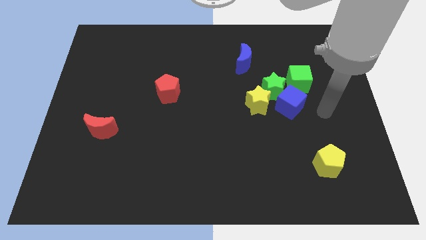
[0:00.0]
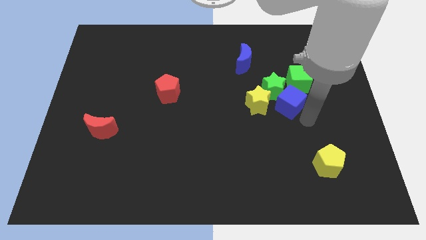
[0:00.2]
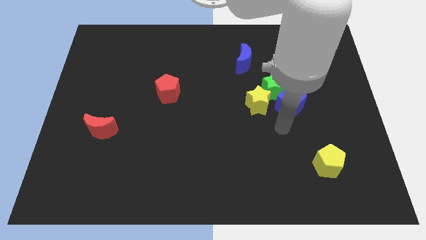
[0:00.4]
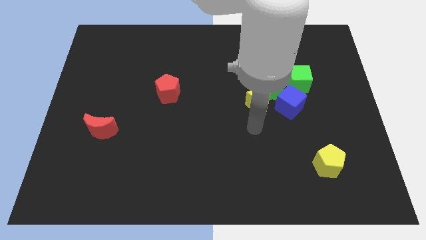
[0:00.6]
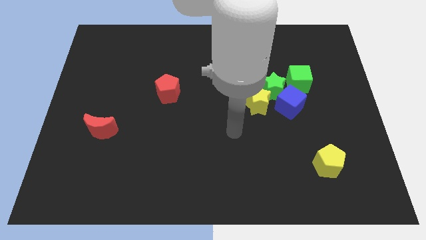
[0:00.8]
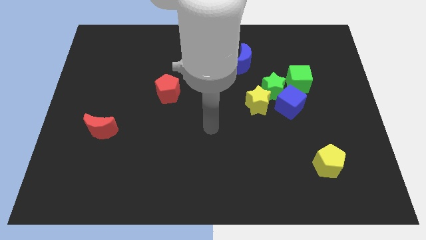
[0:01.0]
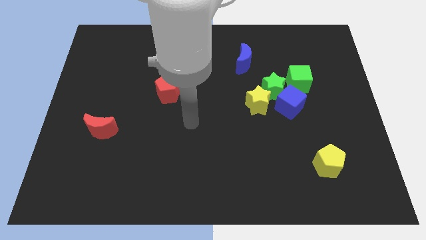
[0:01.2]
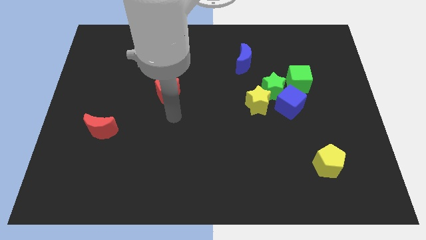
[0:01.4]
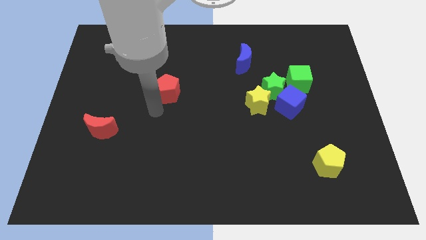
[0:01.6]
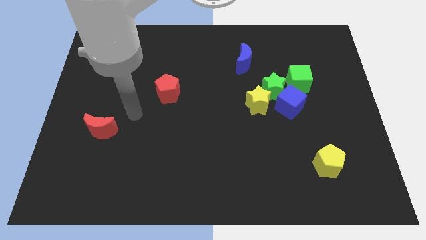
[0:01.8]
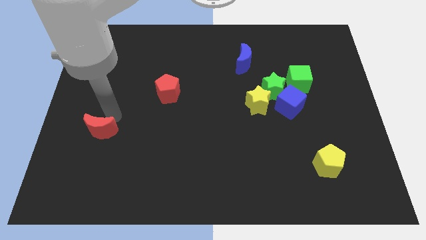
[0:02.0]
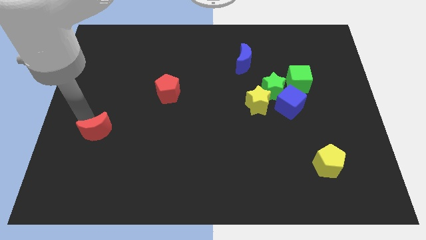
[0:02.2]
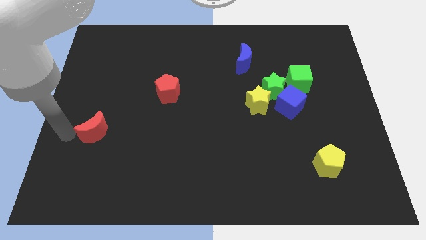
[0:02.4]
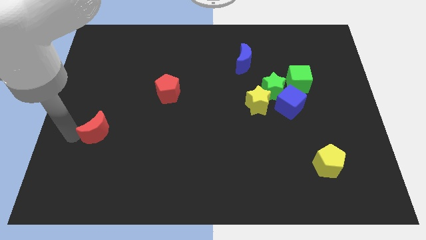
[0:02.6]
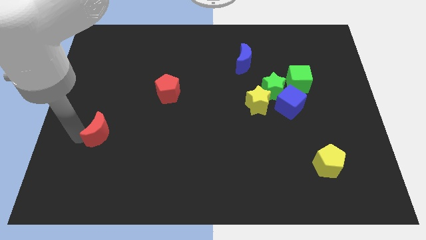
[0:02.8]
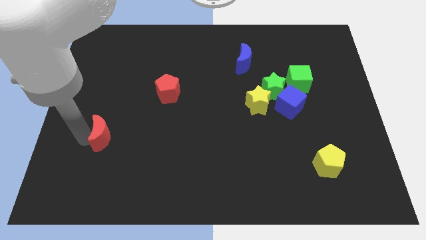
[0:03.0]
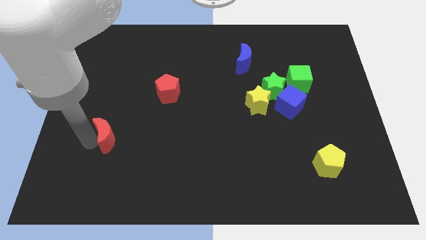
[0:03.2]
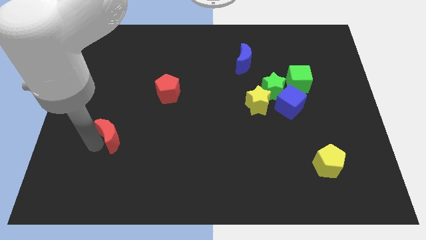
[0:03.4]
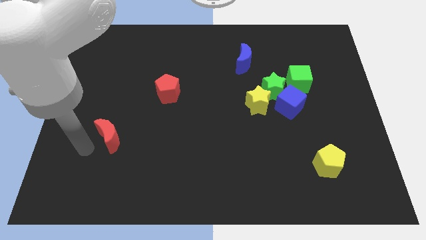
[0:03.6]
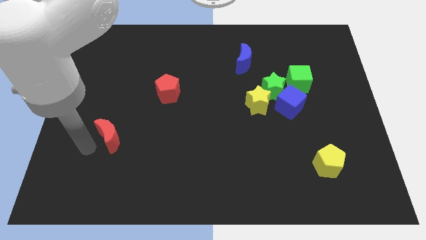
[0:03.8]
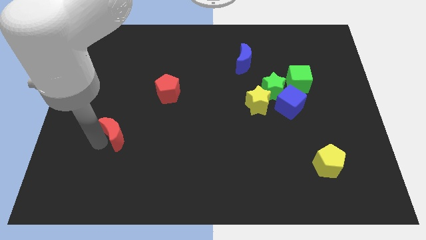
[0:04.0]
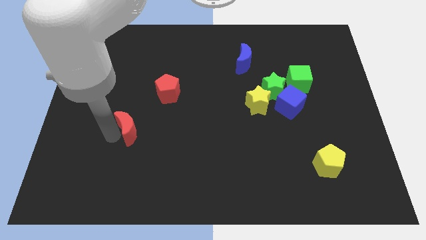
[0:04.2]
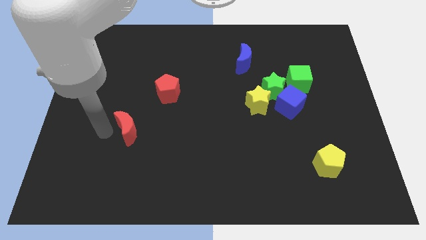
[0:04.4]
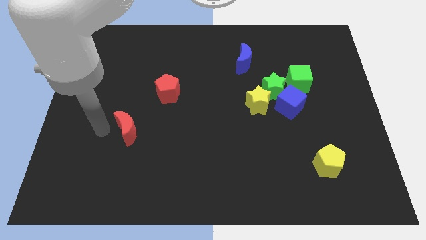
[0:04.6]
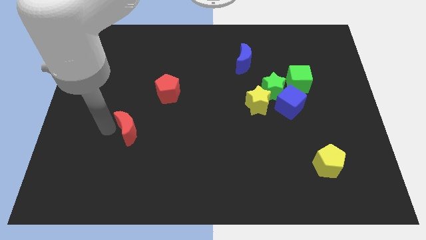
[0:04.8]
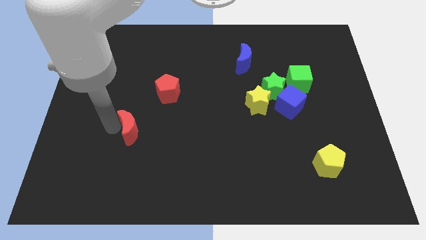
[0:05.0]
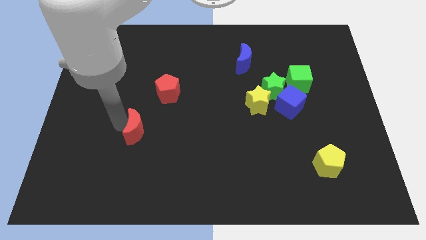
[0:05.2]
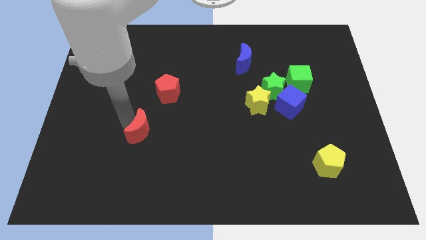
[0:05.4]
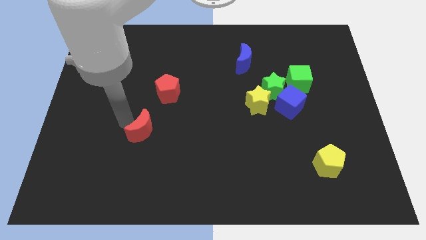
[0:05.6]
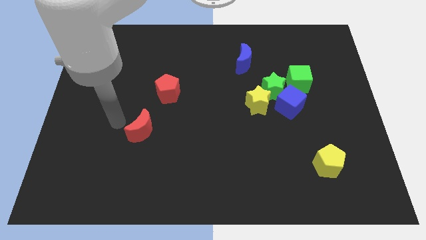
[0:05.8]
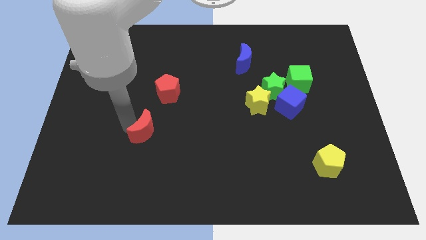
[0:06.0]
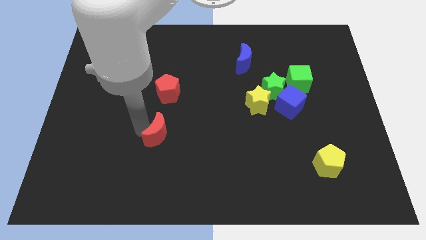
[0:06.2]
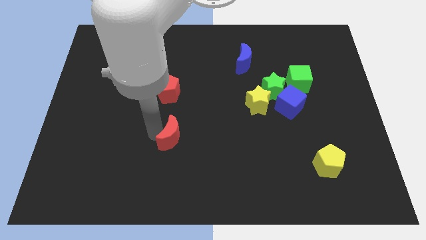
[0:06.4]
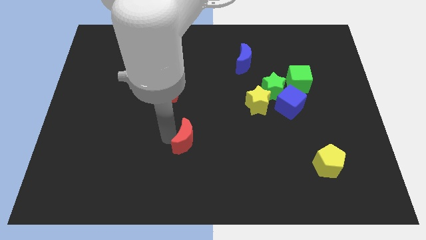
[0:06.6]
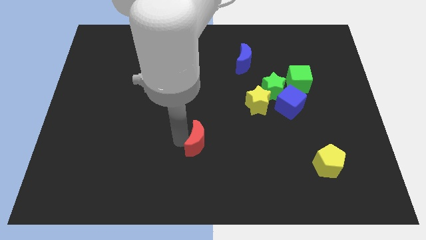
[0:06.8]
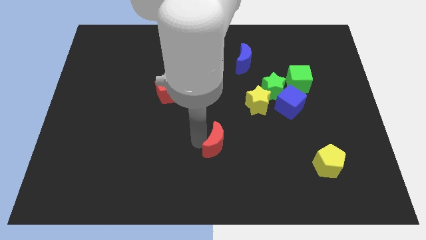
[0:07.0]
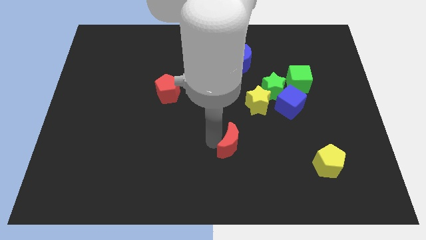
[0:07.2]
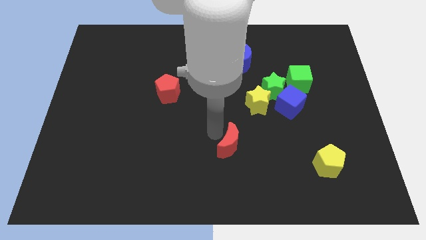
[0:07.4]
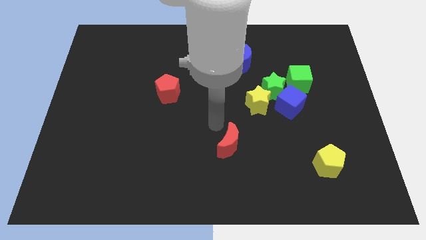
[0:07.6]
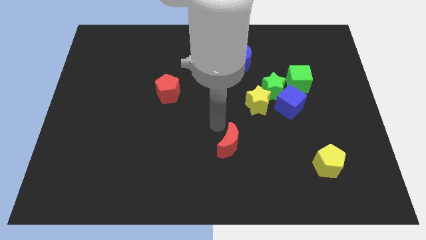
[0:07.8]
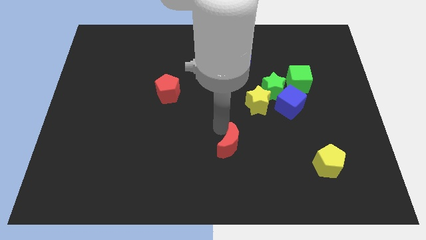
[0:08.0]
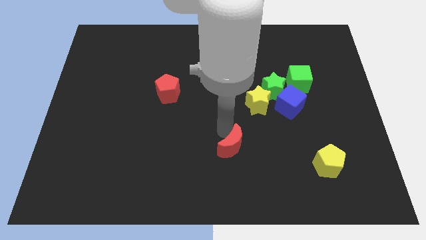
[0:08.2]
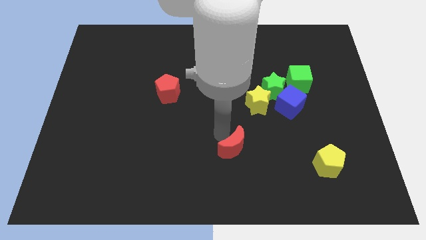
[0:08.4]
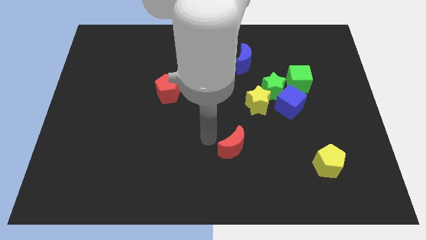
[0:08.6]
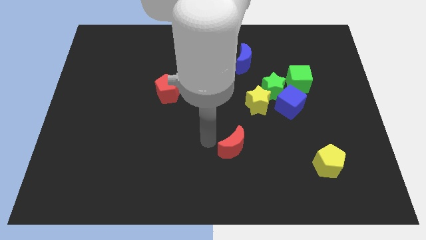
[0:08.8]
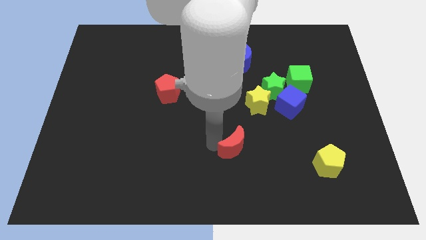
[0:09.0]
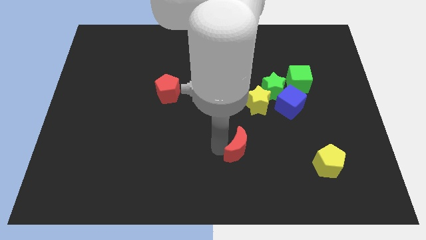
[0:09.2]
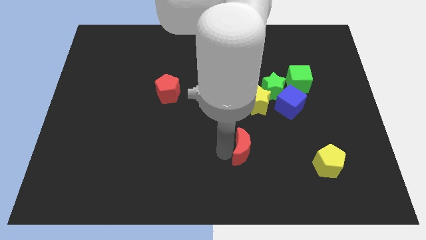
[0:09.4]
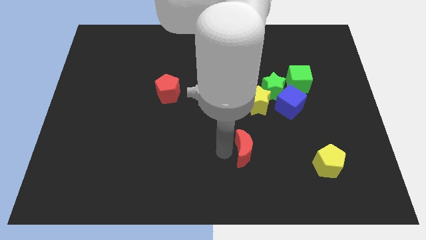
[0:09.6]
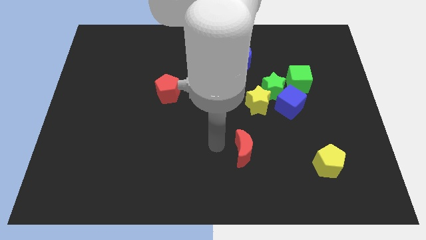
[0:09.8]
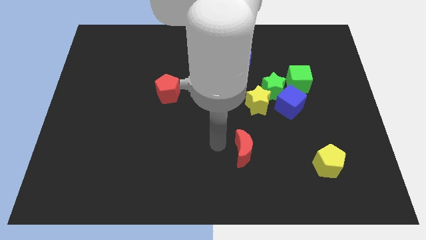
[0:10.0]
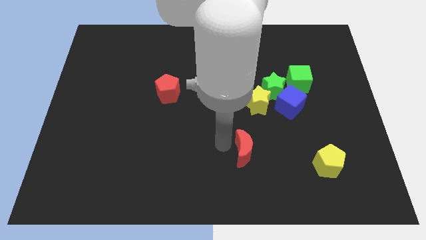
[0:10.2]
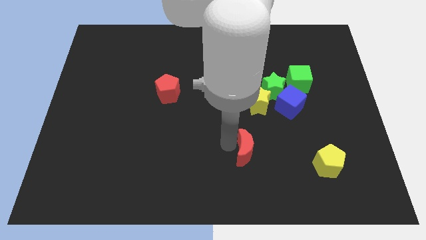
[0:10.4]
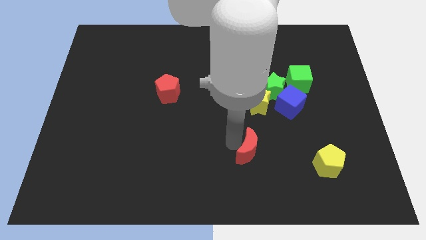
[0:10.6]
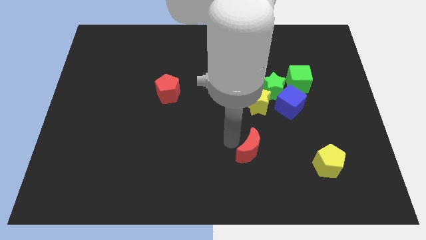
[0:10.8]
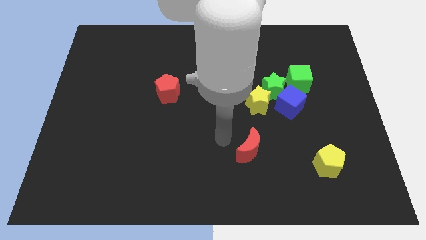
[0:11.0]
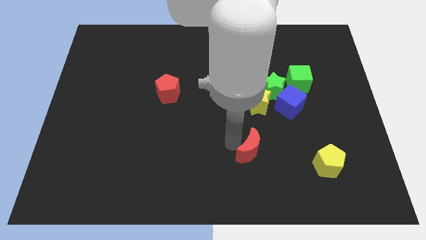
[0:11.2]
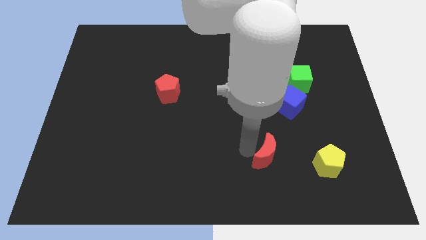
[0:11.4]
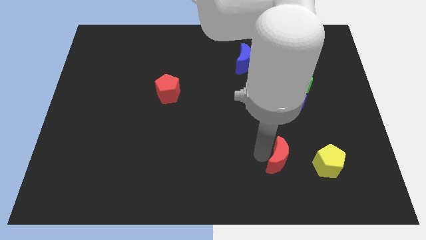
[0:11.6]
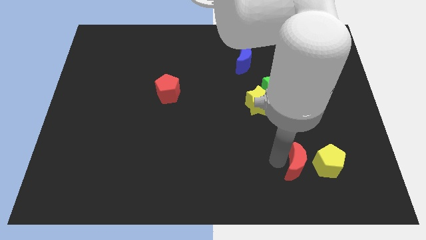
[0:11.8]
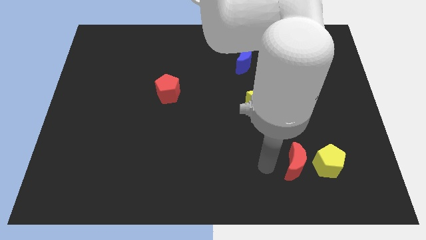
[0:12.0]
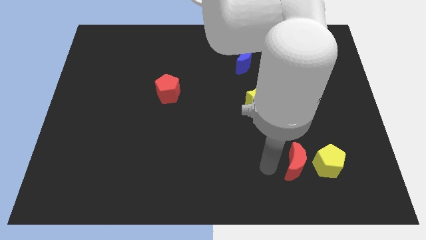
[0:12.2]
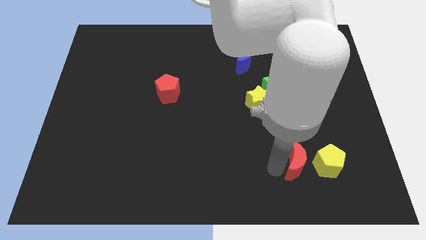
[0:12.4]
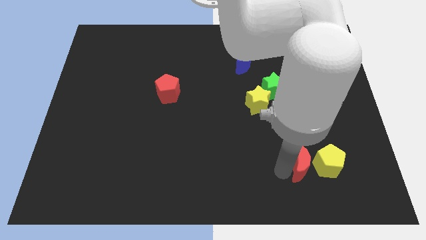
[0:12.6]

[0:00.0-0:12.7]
slide the red moon towards the yellow pentagon
